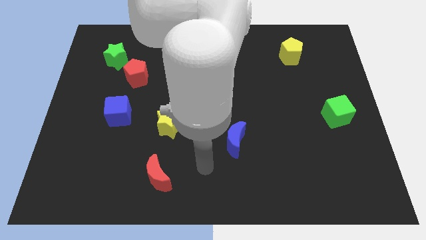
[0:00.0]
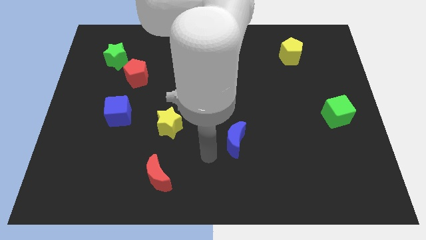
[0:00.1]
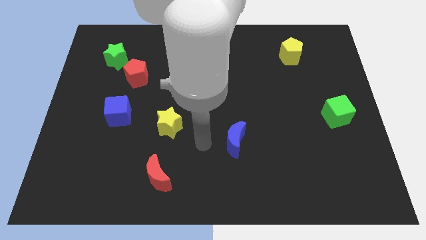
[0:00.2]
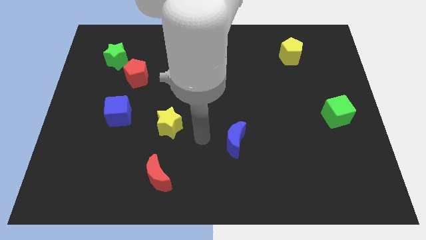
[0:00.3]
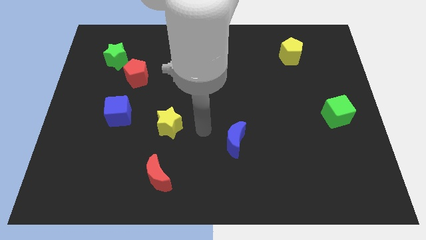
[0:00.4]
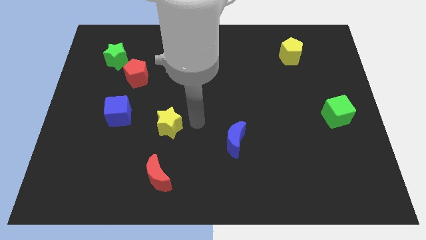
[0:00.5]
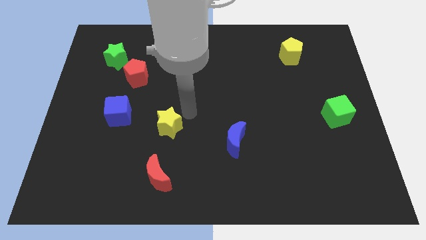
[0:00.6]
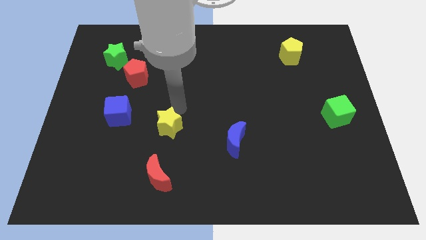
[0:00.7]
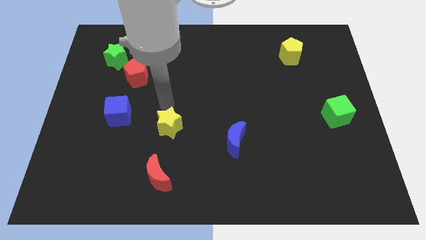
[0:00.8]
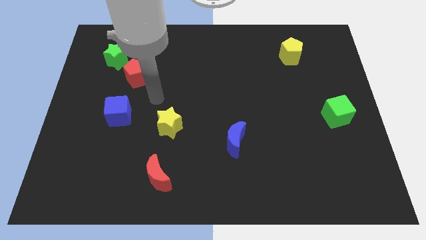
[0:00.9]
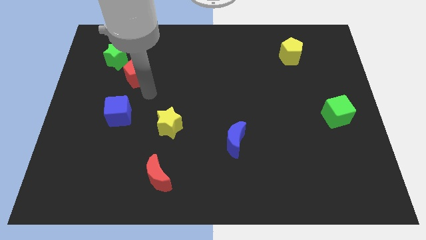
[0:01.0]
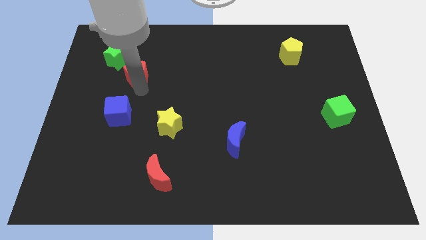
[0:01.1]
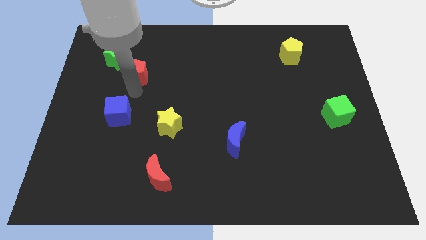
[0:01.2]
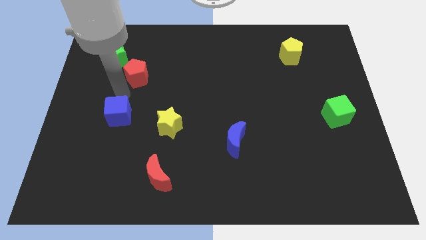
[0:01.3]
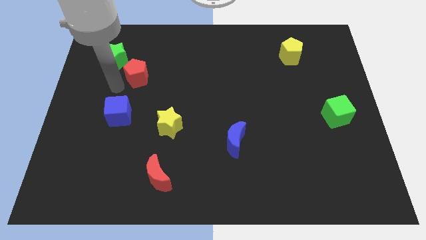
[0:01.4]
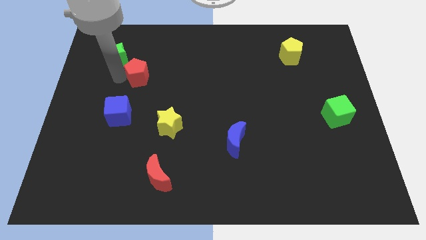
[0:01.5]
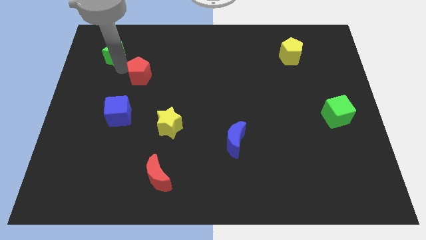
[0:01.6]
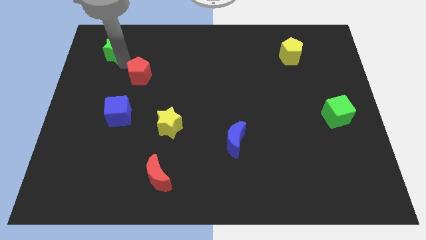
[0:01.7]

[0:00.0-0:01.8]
separate the red pentagon from the green star

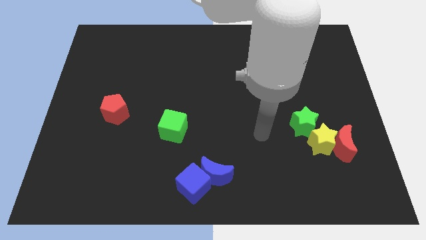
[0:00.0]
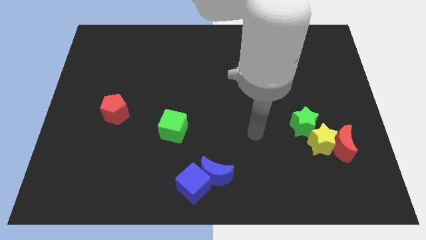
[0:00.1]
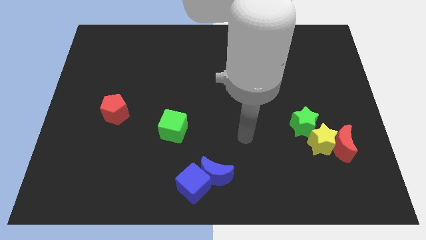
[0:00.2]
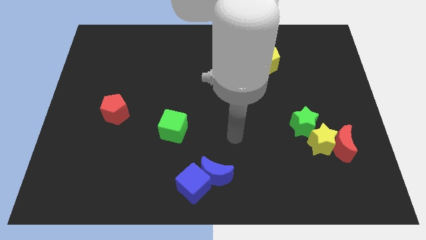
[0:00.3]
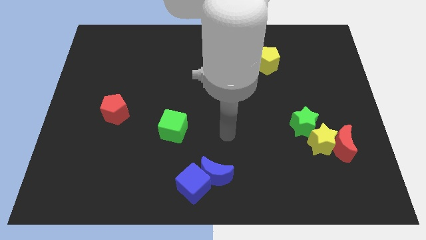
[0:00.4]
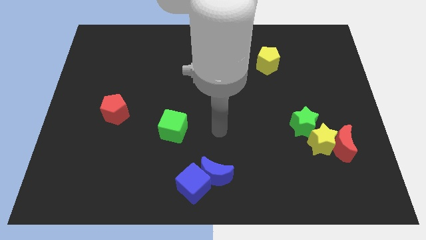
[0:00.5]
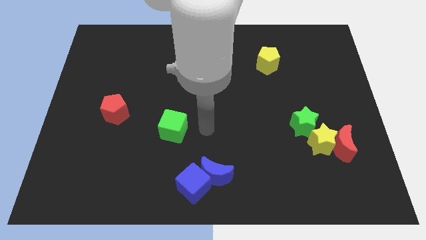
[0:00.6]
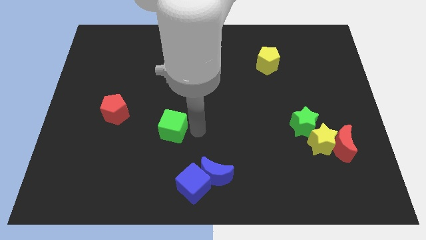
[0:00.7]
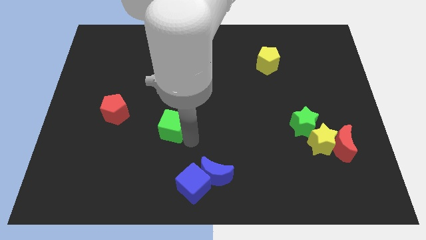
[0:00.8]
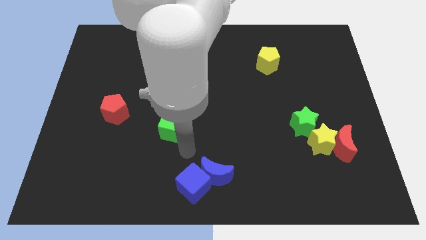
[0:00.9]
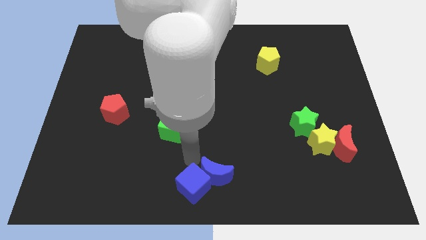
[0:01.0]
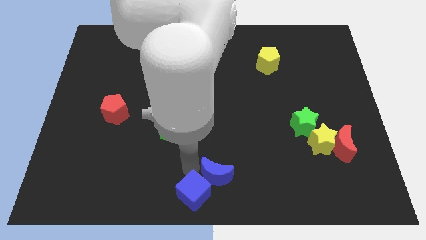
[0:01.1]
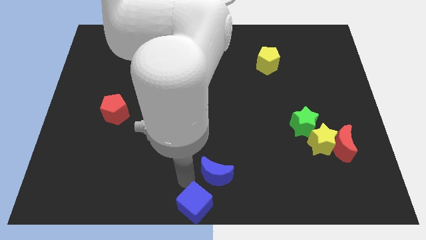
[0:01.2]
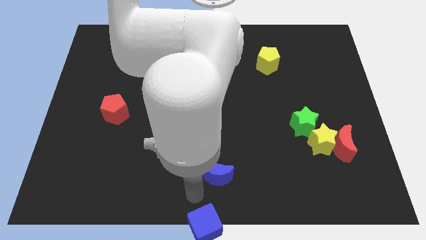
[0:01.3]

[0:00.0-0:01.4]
move the blue moon away from the blue cube

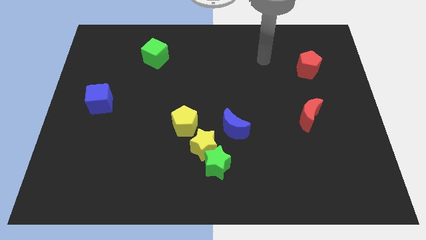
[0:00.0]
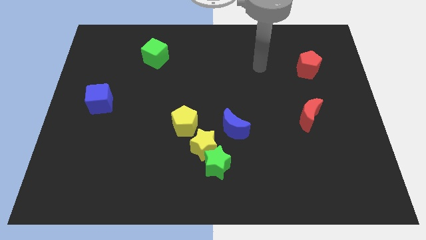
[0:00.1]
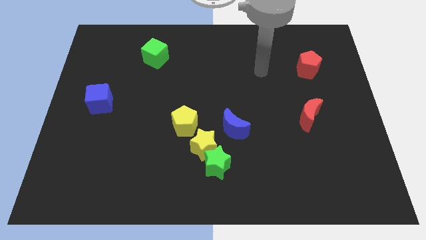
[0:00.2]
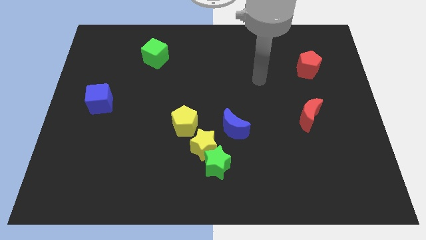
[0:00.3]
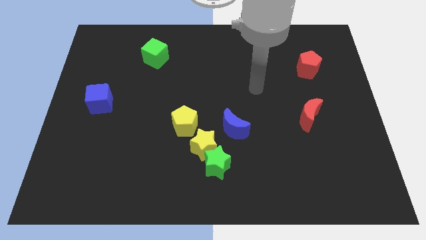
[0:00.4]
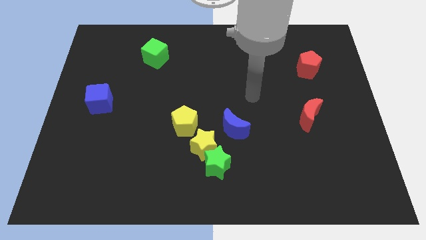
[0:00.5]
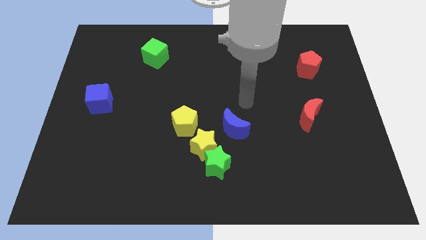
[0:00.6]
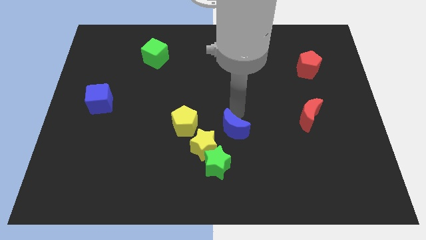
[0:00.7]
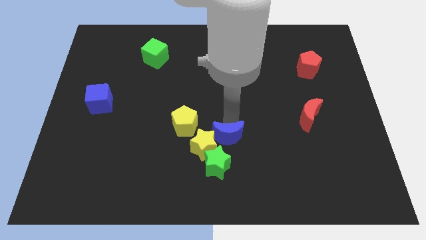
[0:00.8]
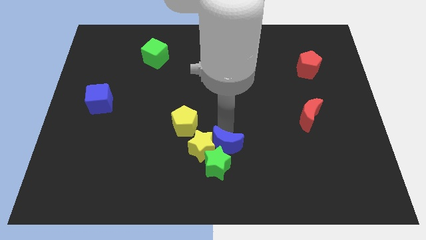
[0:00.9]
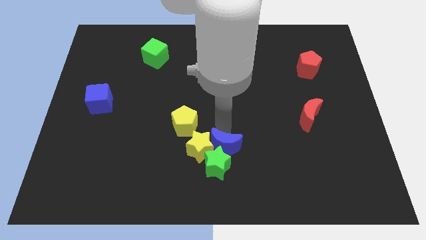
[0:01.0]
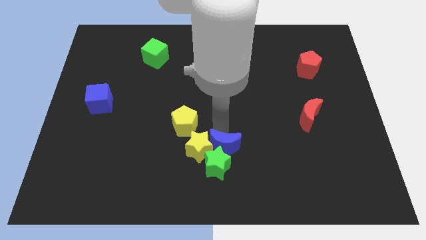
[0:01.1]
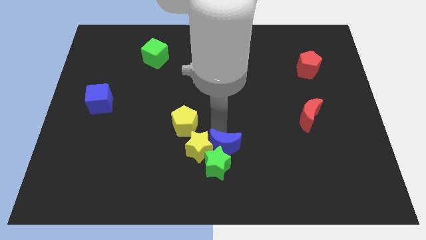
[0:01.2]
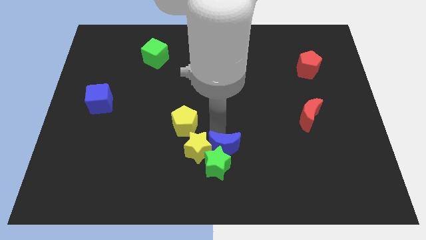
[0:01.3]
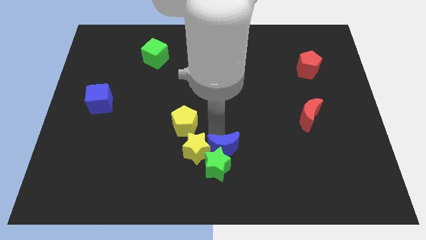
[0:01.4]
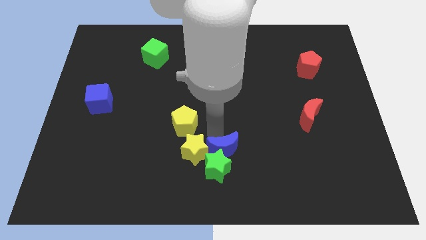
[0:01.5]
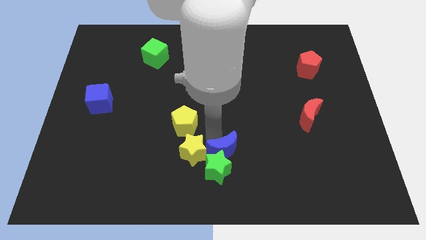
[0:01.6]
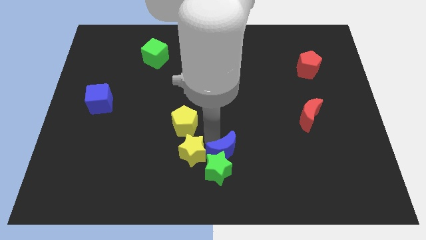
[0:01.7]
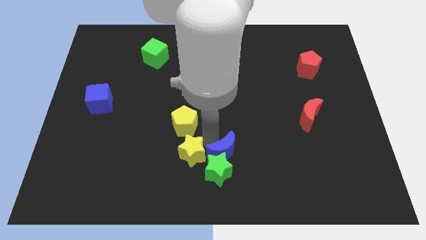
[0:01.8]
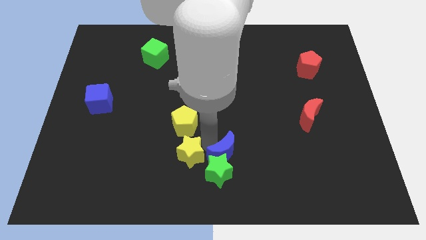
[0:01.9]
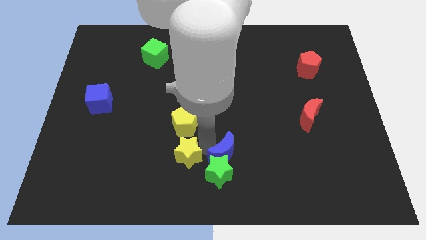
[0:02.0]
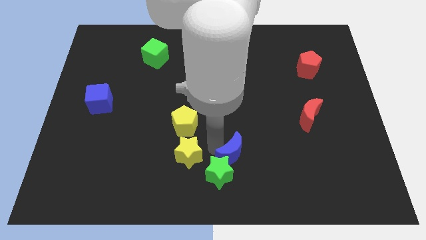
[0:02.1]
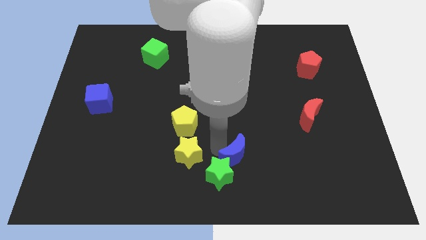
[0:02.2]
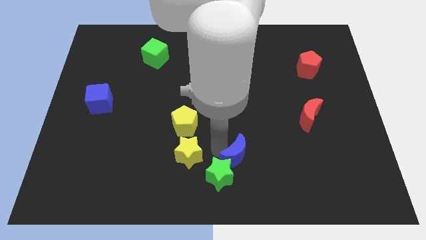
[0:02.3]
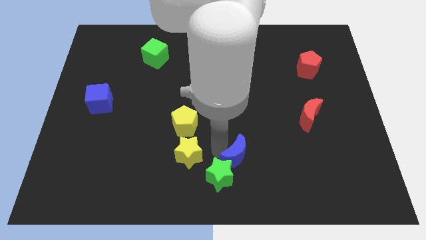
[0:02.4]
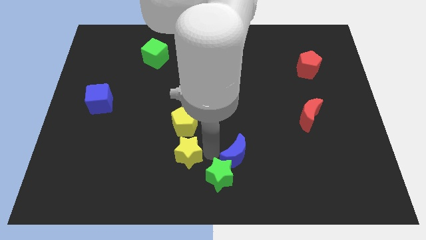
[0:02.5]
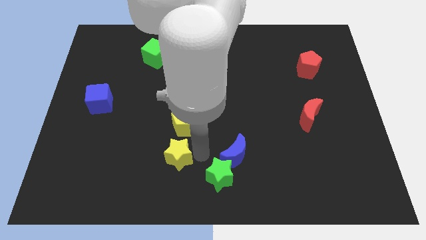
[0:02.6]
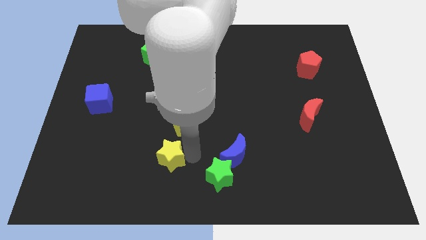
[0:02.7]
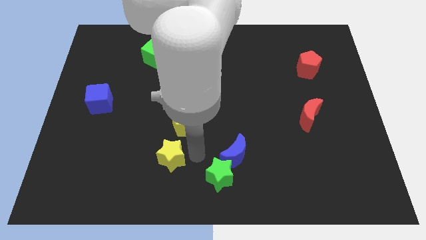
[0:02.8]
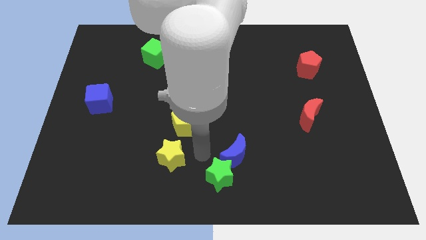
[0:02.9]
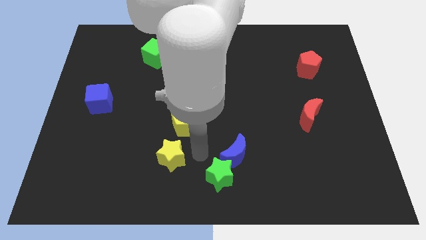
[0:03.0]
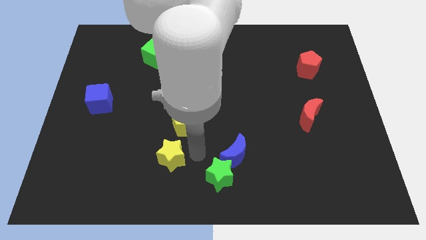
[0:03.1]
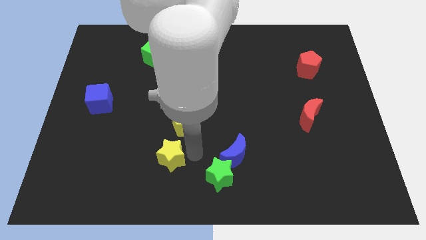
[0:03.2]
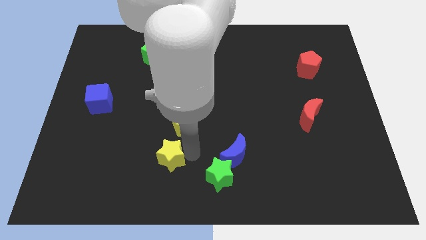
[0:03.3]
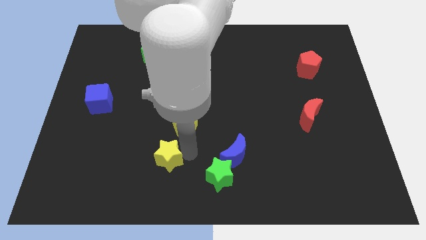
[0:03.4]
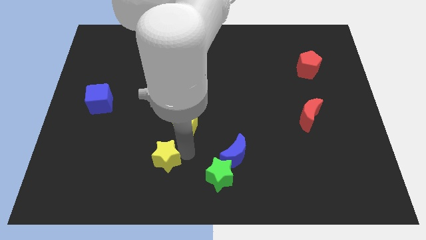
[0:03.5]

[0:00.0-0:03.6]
pull the yellow star apart from the green star, yellow pentagon, and blue moon

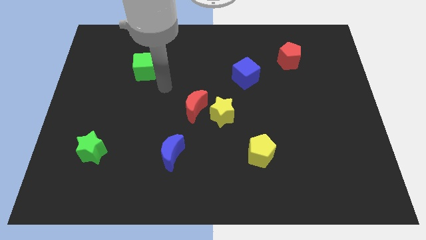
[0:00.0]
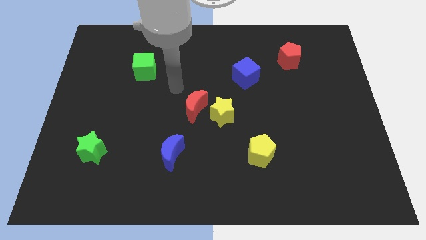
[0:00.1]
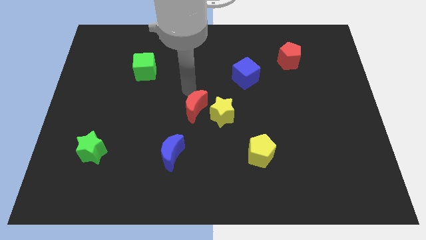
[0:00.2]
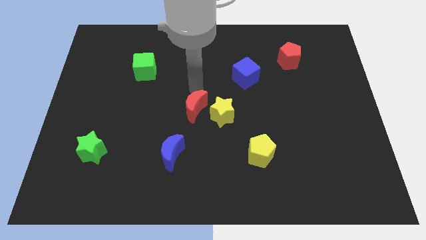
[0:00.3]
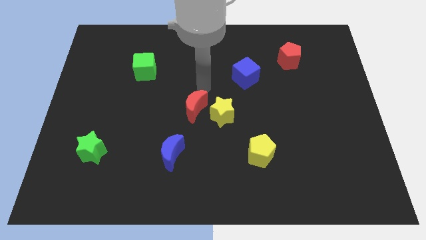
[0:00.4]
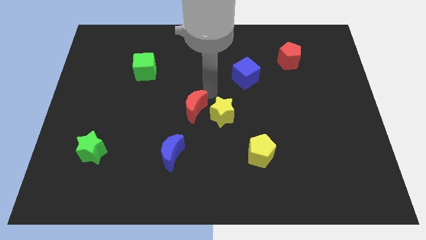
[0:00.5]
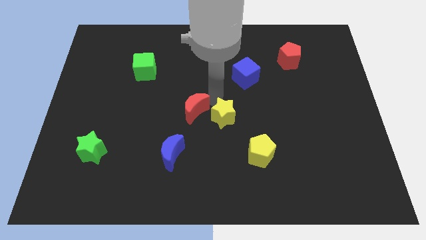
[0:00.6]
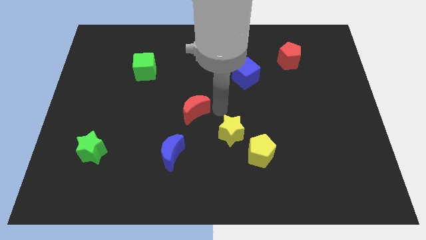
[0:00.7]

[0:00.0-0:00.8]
pull the red moon apart from the yellow star

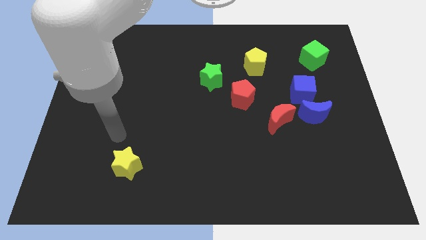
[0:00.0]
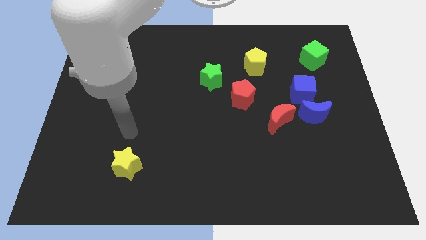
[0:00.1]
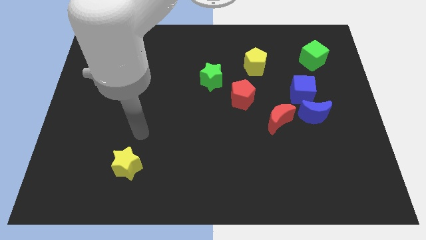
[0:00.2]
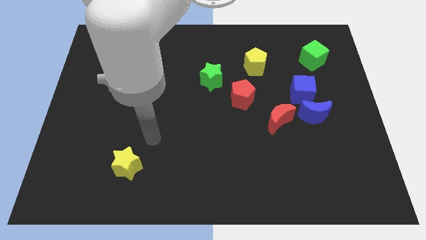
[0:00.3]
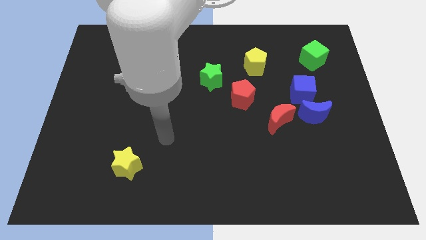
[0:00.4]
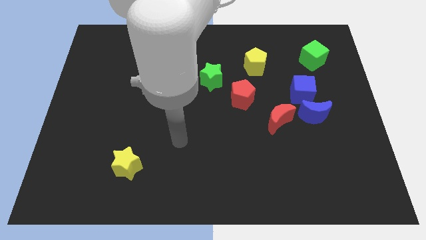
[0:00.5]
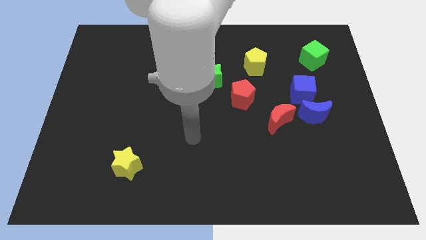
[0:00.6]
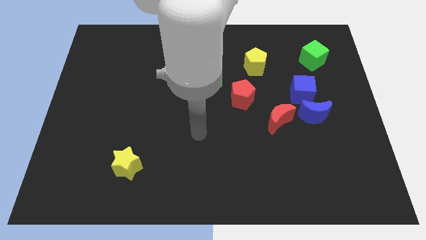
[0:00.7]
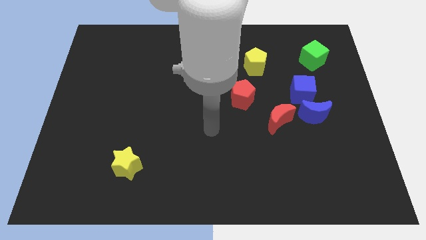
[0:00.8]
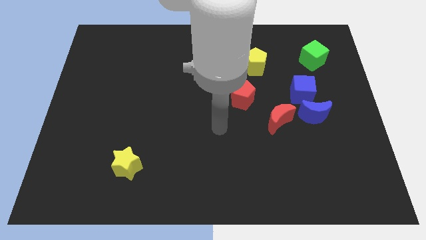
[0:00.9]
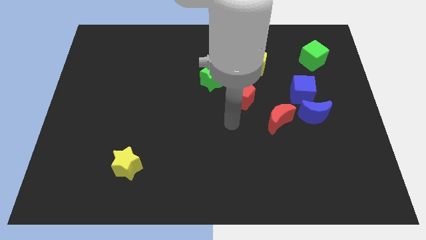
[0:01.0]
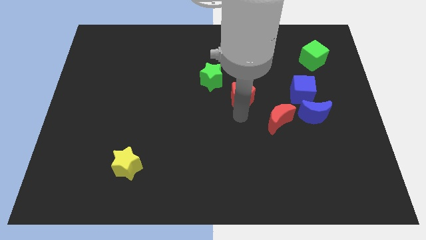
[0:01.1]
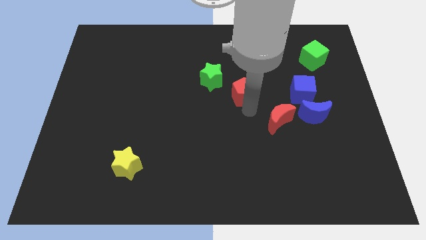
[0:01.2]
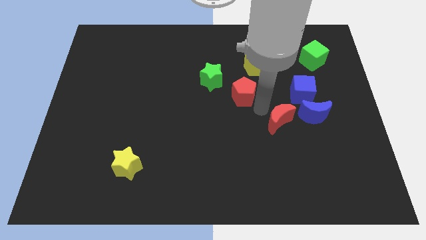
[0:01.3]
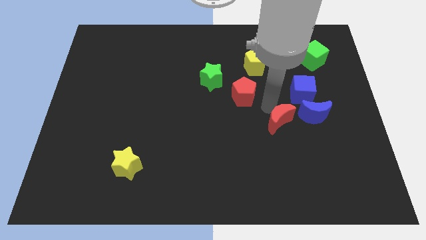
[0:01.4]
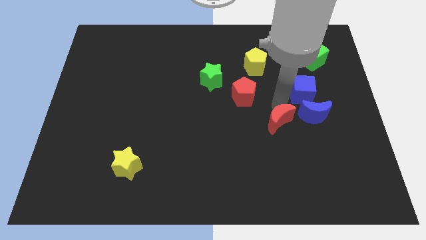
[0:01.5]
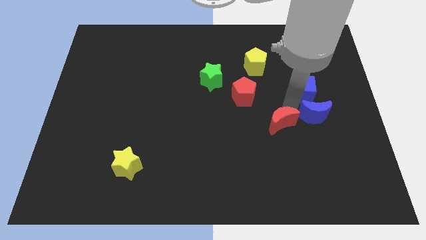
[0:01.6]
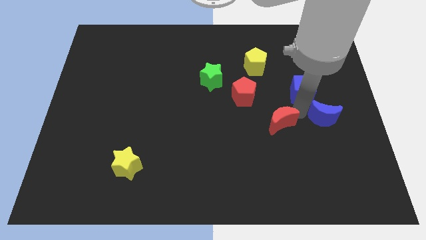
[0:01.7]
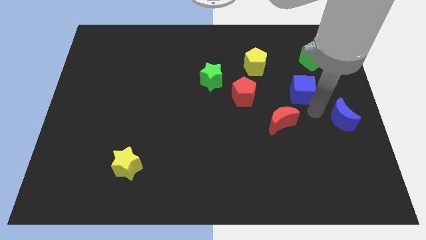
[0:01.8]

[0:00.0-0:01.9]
separate the blue cube from the blue moon

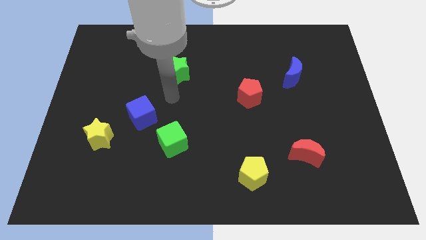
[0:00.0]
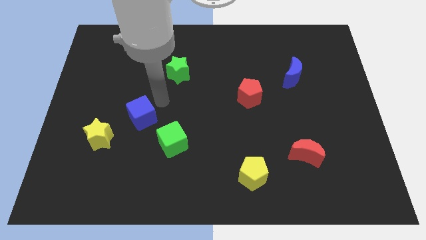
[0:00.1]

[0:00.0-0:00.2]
move the yellow star away from the blue cube
